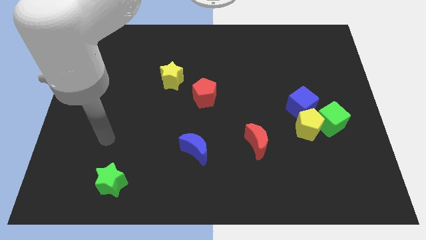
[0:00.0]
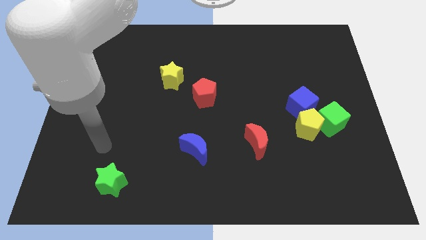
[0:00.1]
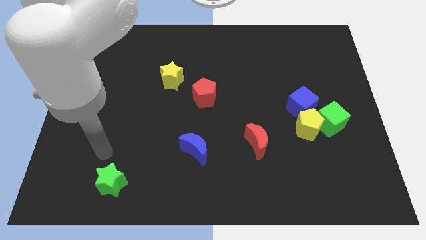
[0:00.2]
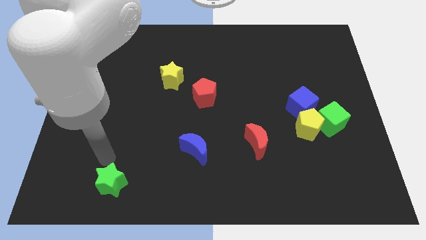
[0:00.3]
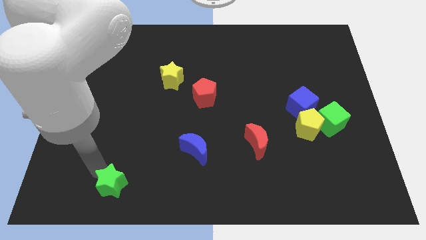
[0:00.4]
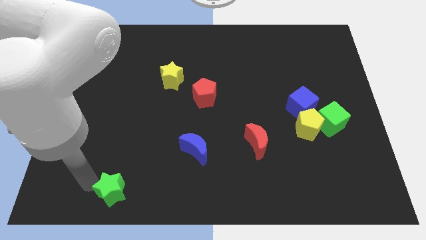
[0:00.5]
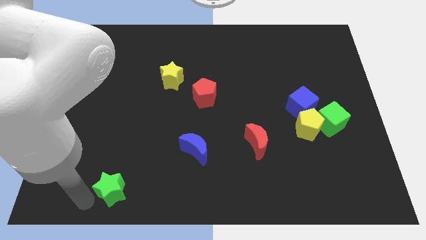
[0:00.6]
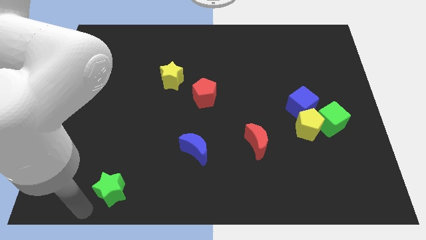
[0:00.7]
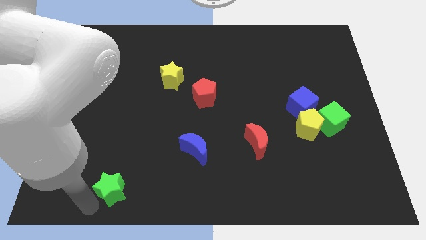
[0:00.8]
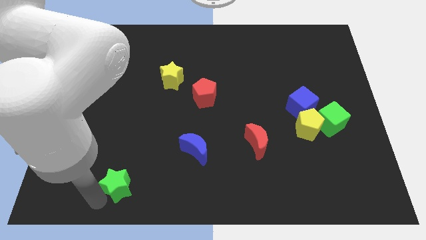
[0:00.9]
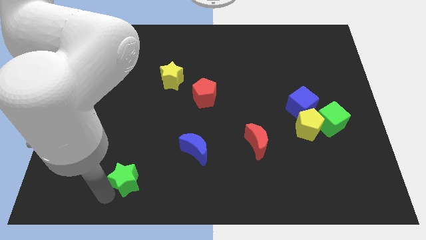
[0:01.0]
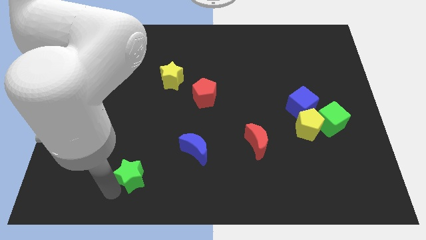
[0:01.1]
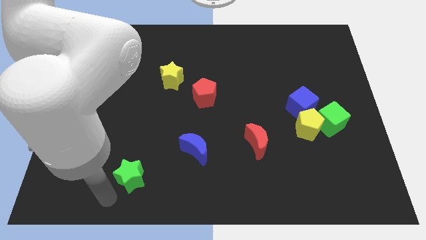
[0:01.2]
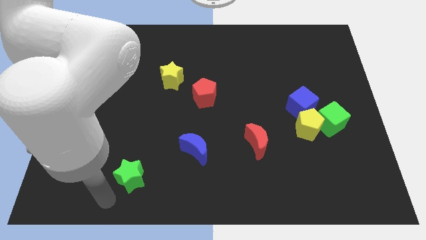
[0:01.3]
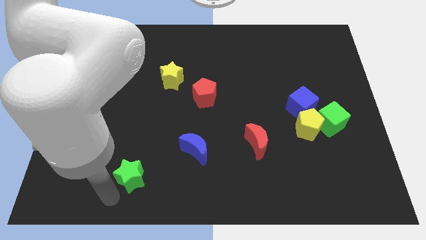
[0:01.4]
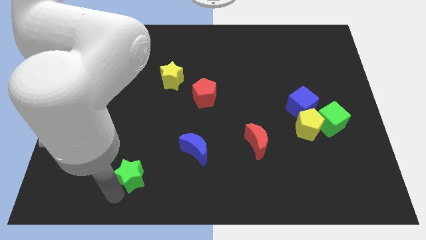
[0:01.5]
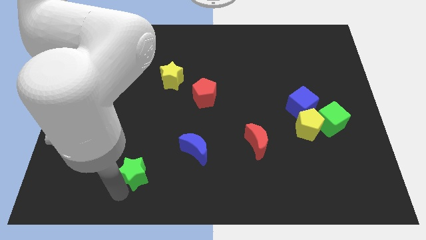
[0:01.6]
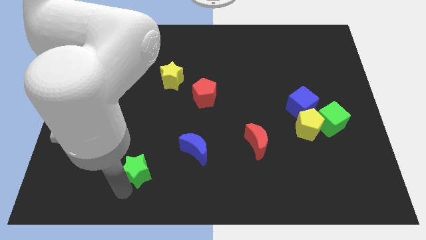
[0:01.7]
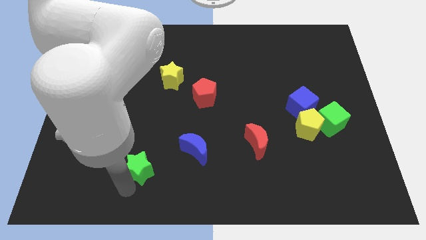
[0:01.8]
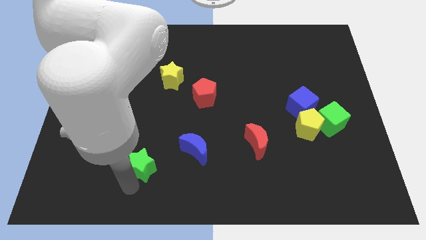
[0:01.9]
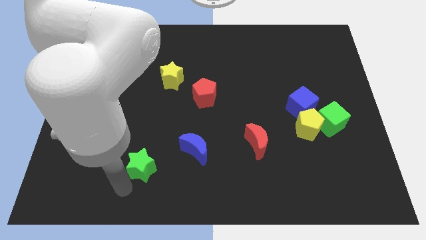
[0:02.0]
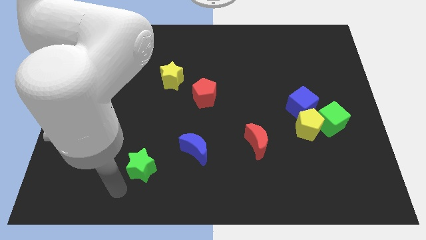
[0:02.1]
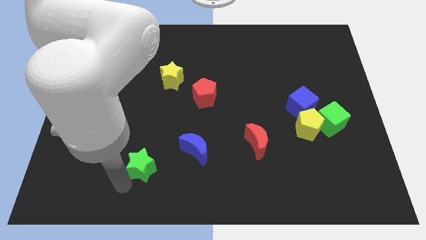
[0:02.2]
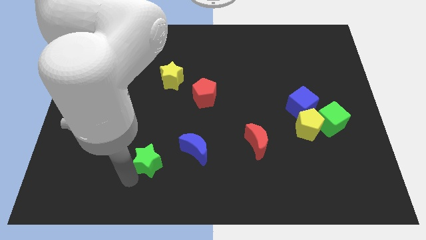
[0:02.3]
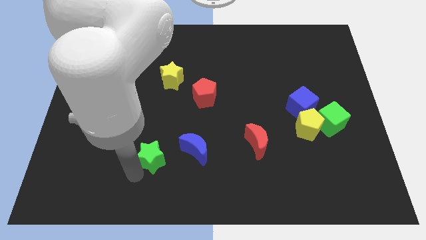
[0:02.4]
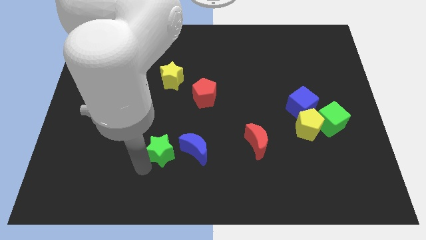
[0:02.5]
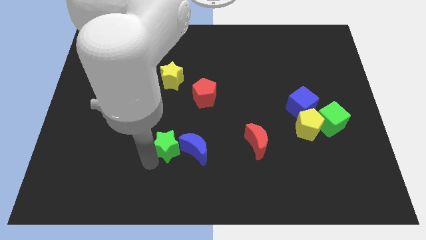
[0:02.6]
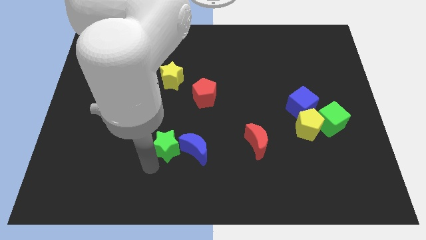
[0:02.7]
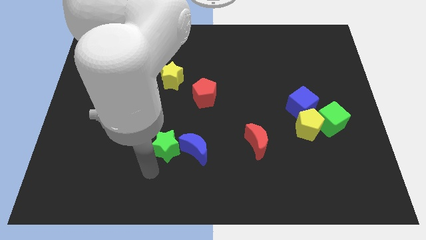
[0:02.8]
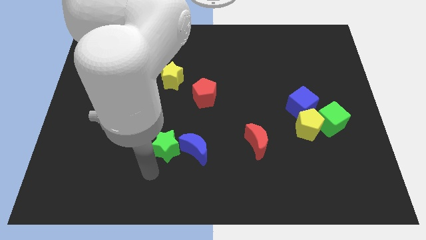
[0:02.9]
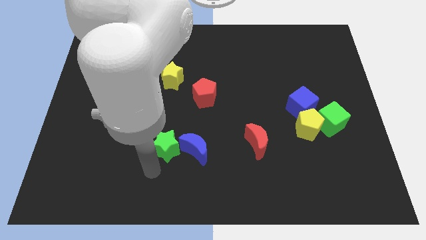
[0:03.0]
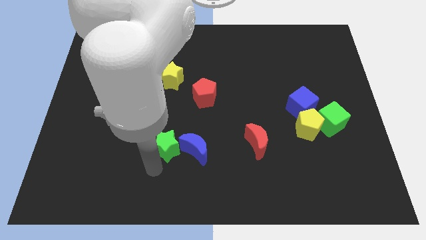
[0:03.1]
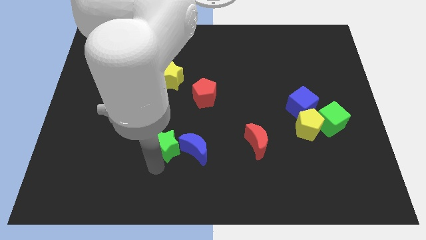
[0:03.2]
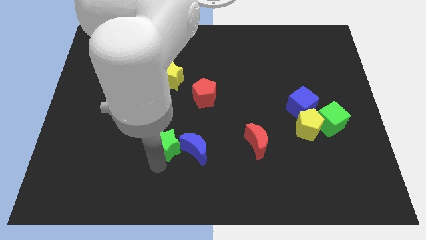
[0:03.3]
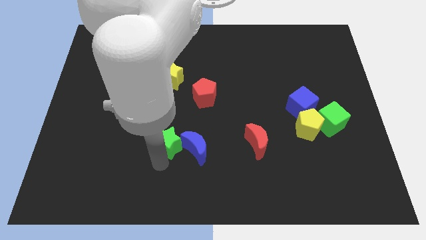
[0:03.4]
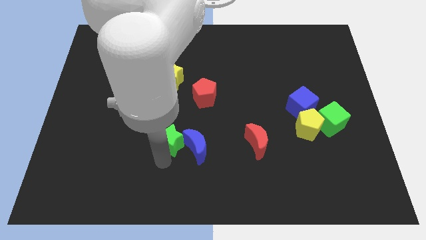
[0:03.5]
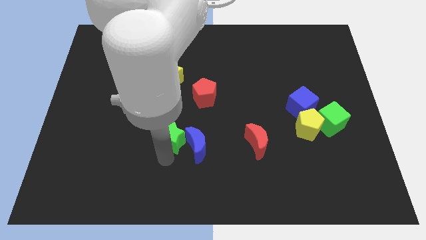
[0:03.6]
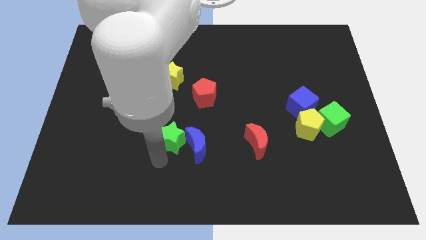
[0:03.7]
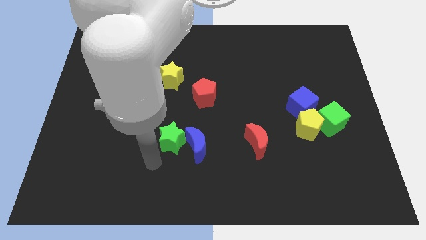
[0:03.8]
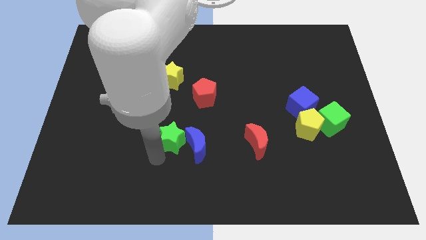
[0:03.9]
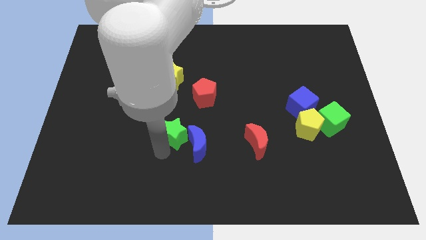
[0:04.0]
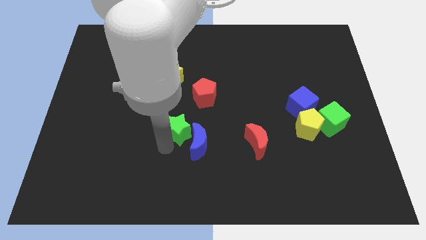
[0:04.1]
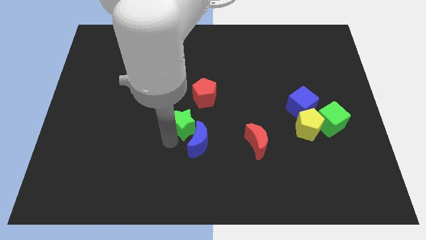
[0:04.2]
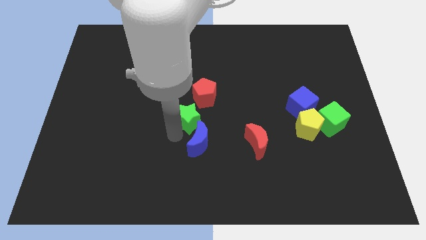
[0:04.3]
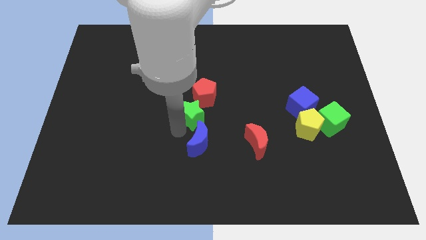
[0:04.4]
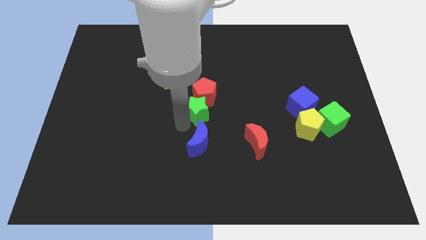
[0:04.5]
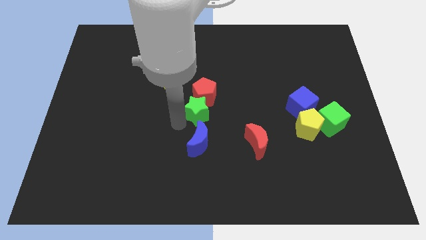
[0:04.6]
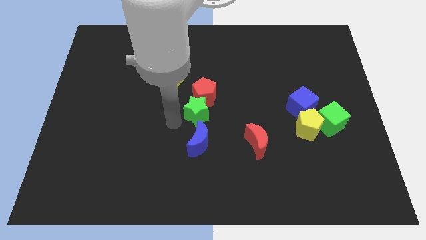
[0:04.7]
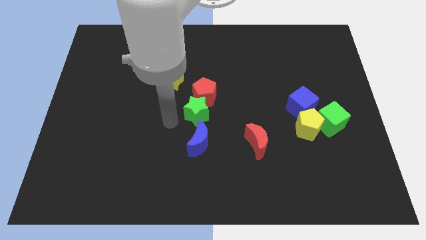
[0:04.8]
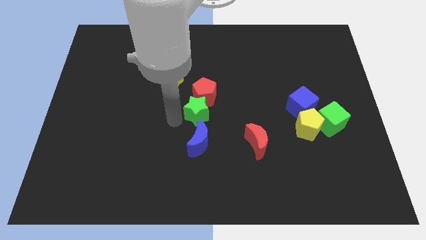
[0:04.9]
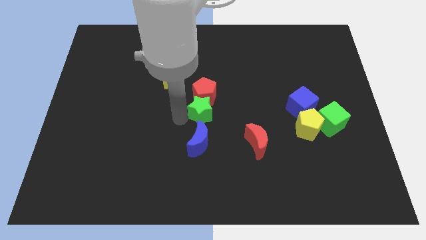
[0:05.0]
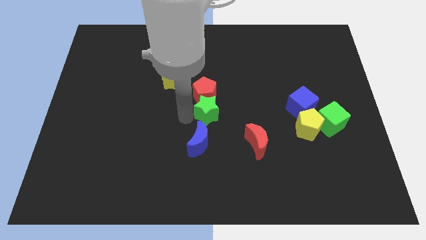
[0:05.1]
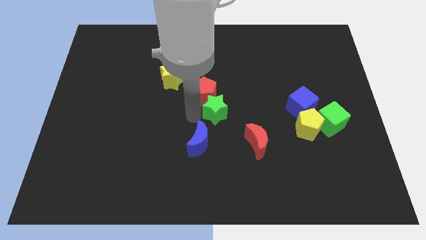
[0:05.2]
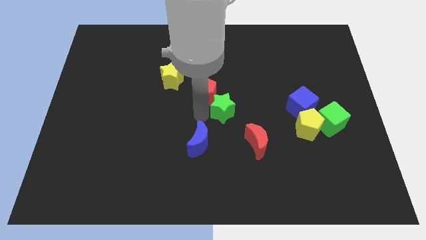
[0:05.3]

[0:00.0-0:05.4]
put the green star to the right of the red pentagon

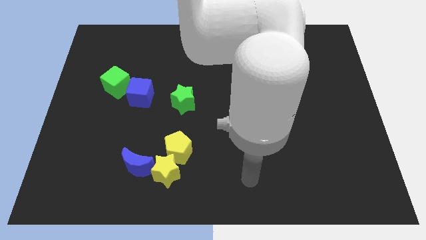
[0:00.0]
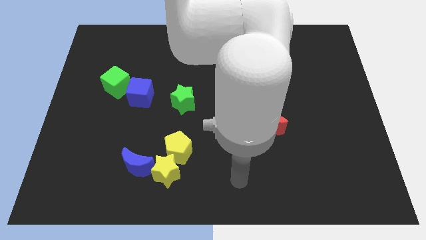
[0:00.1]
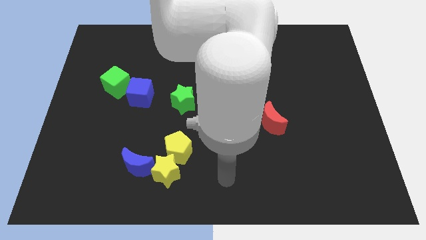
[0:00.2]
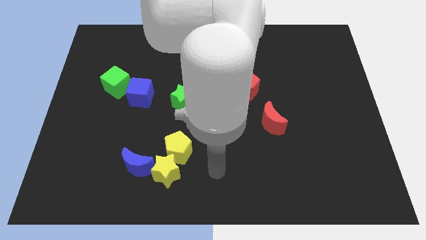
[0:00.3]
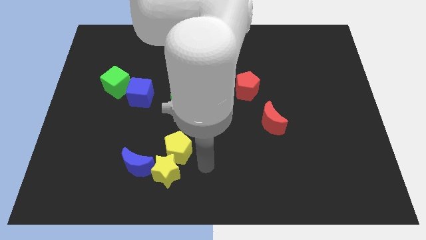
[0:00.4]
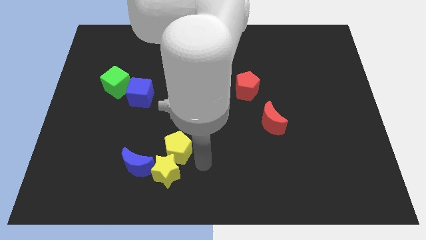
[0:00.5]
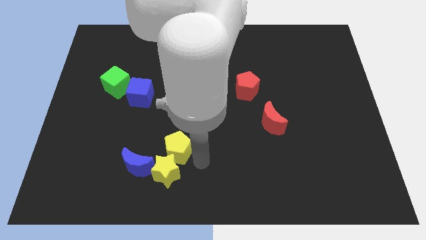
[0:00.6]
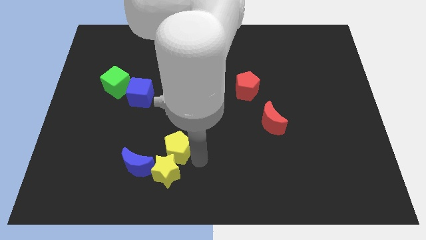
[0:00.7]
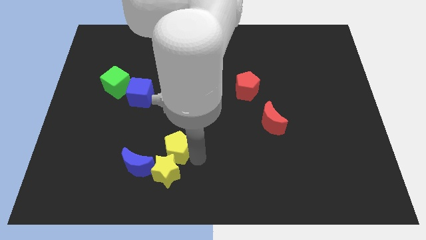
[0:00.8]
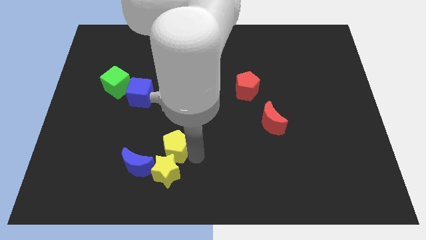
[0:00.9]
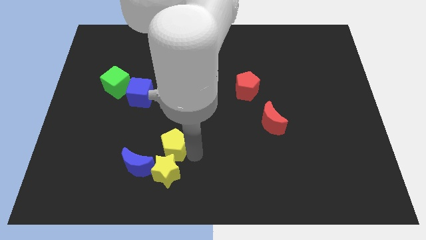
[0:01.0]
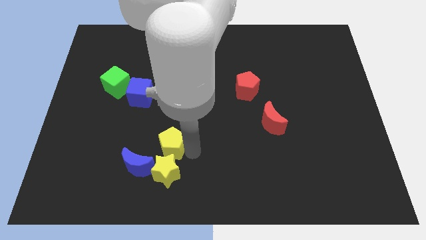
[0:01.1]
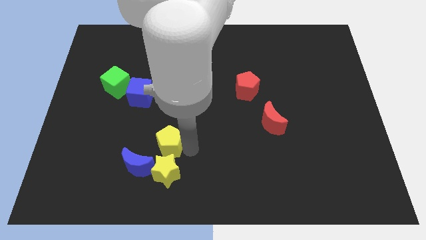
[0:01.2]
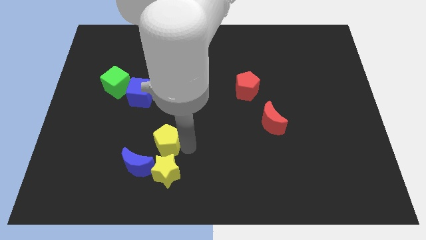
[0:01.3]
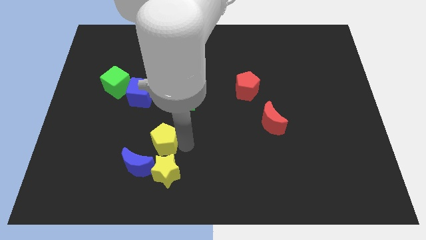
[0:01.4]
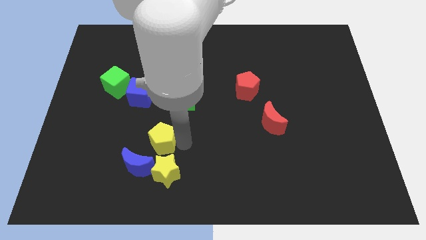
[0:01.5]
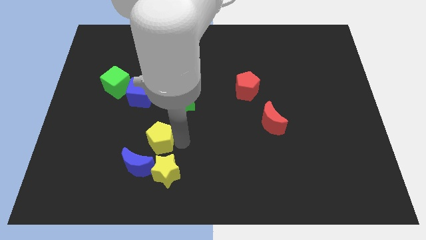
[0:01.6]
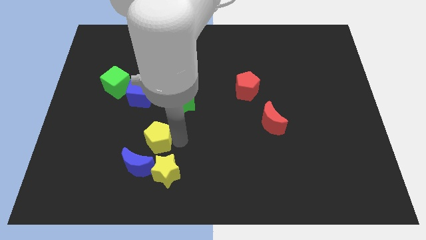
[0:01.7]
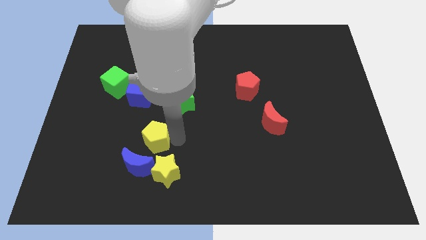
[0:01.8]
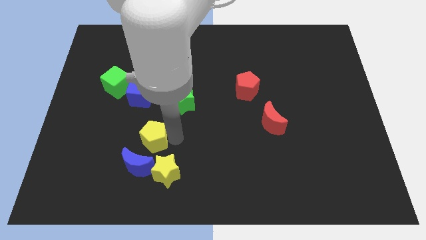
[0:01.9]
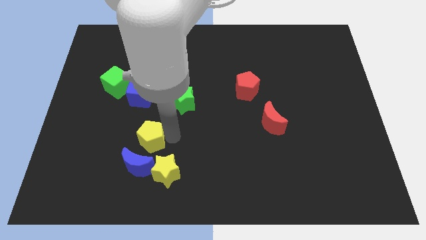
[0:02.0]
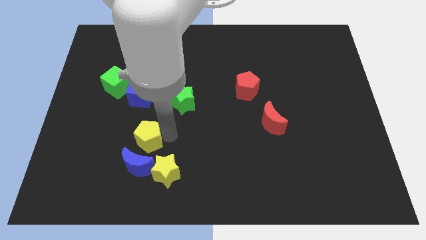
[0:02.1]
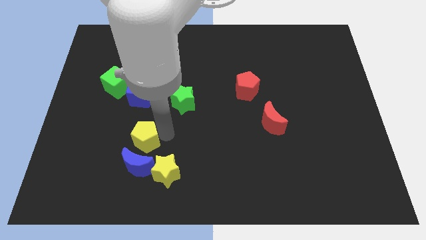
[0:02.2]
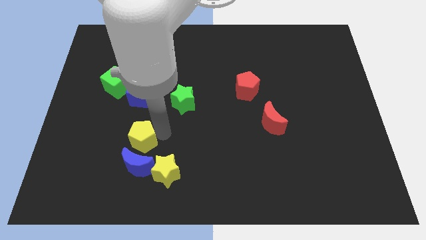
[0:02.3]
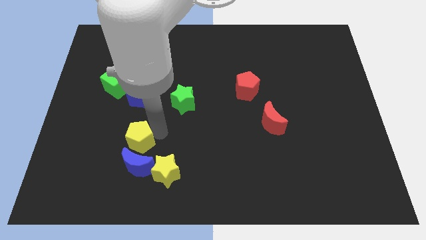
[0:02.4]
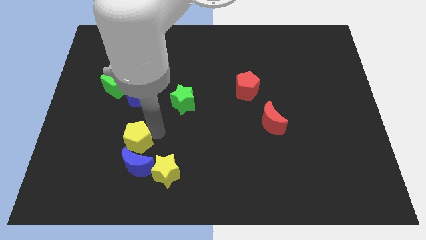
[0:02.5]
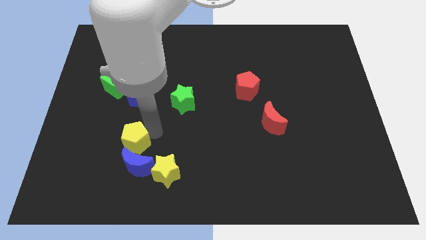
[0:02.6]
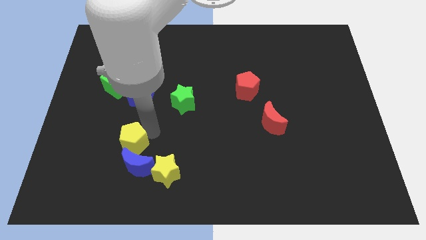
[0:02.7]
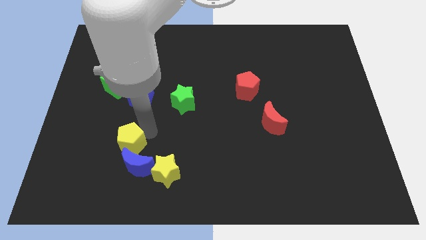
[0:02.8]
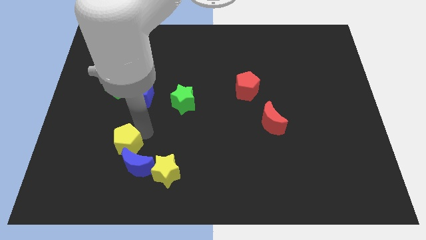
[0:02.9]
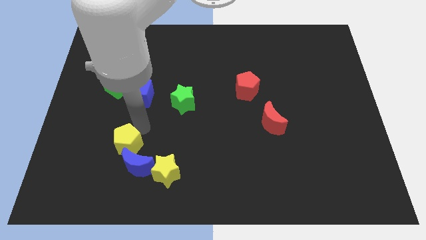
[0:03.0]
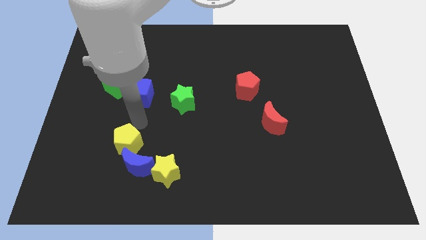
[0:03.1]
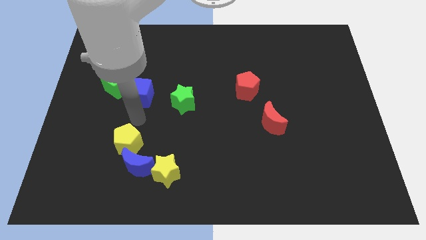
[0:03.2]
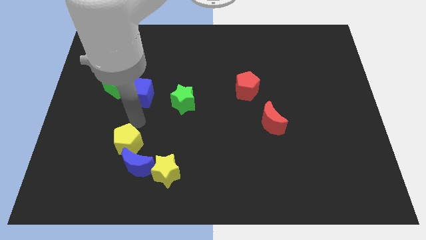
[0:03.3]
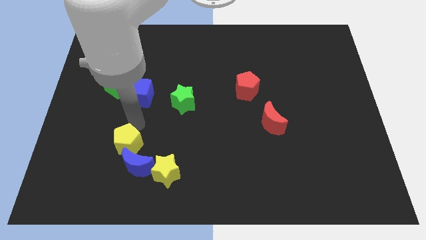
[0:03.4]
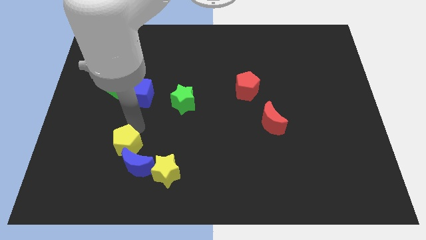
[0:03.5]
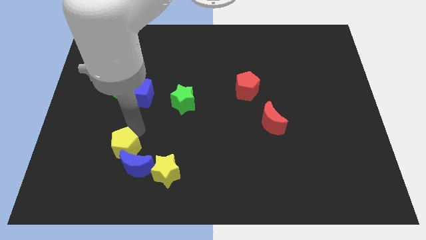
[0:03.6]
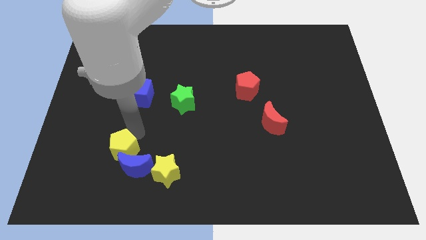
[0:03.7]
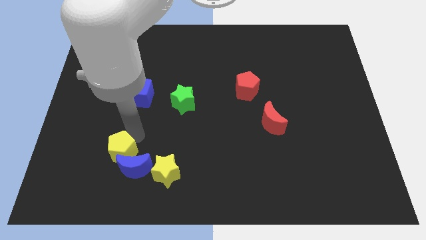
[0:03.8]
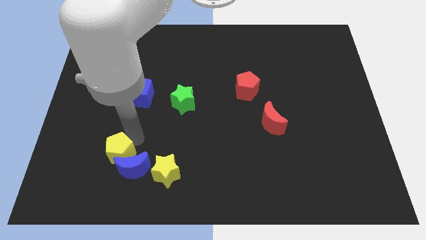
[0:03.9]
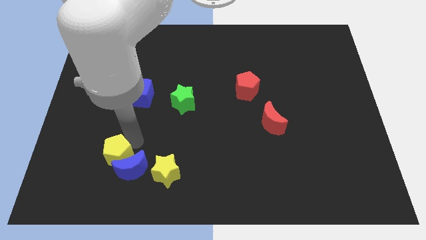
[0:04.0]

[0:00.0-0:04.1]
slide the yellow pentagon just left of the yellow star
